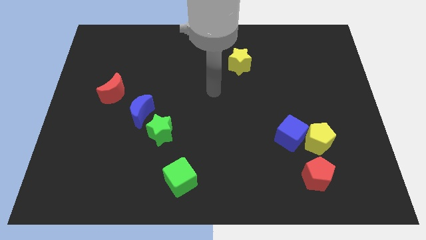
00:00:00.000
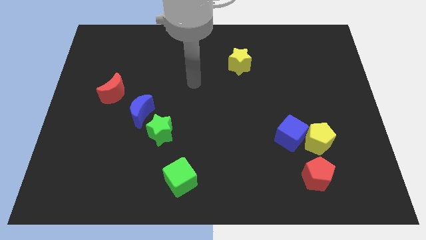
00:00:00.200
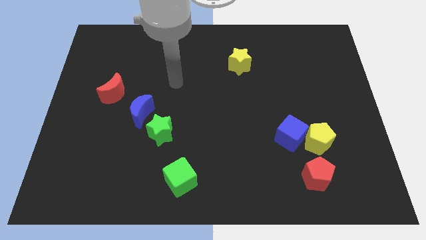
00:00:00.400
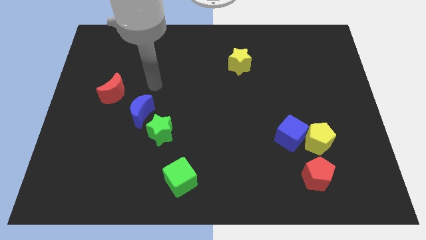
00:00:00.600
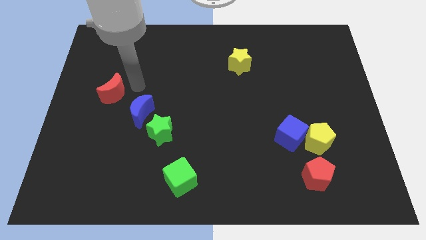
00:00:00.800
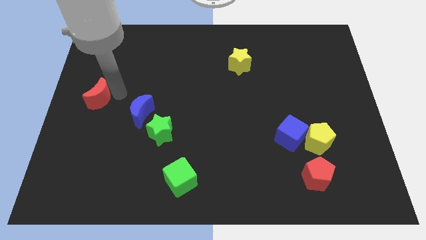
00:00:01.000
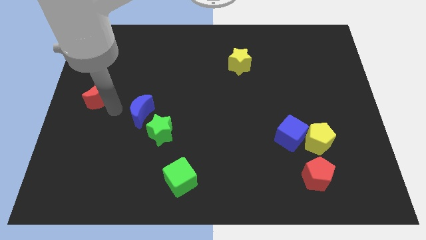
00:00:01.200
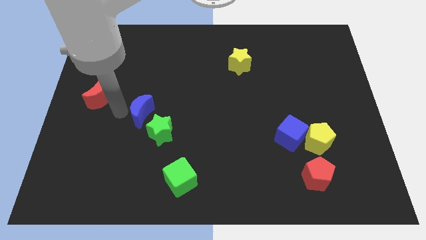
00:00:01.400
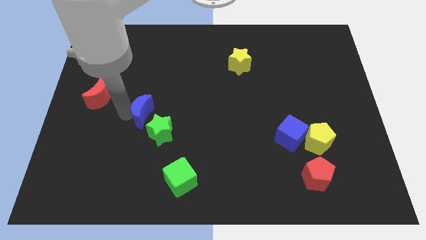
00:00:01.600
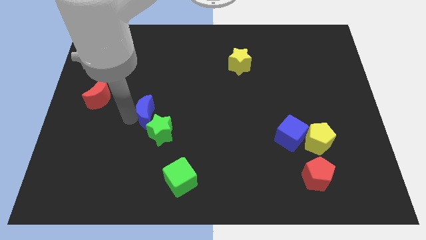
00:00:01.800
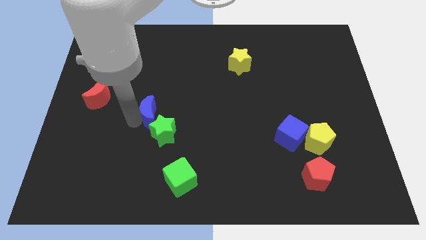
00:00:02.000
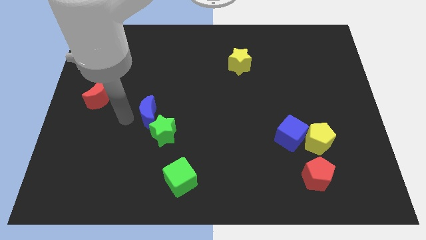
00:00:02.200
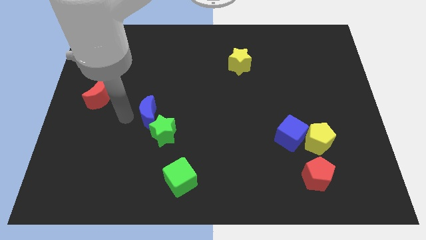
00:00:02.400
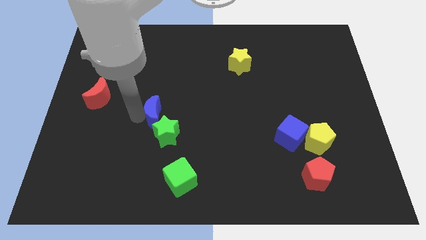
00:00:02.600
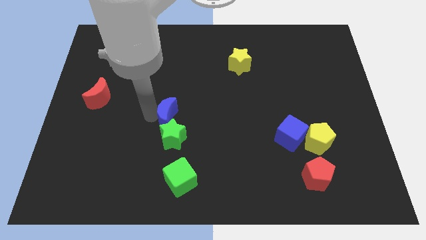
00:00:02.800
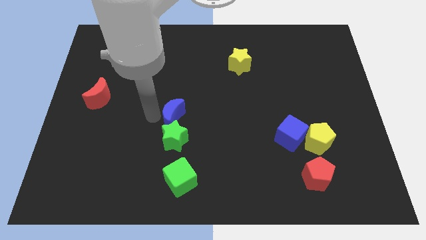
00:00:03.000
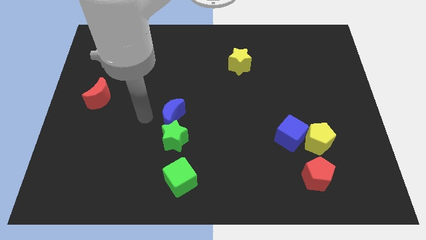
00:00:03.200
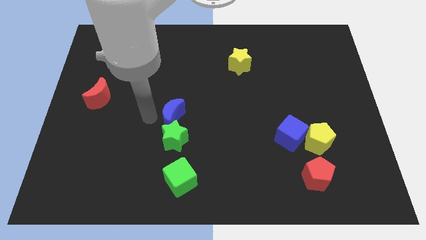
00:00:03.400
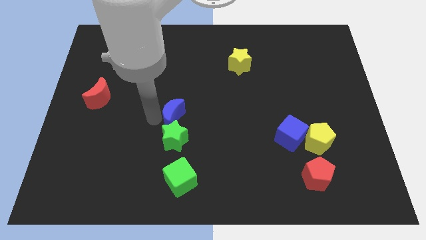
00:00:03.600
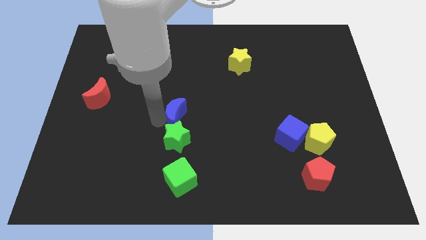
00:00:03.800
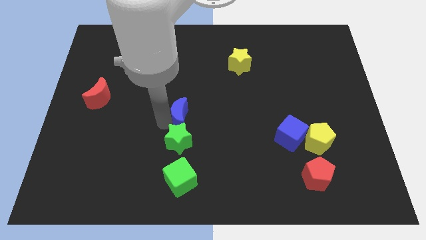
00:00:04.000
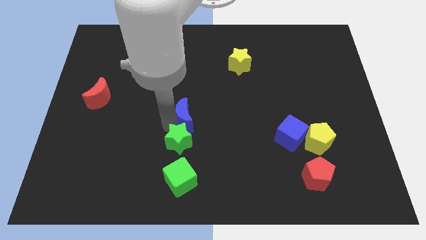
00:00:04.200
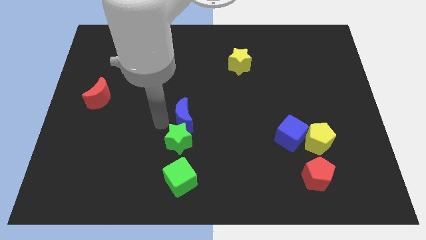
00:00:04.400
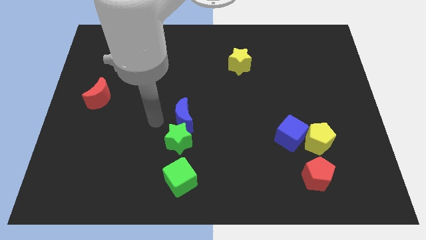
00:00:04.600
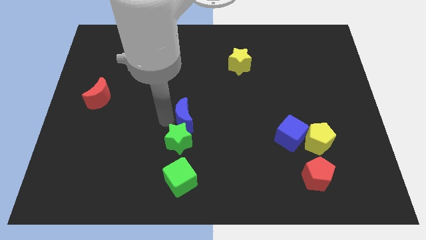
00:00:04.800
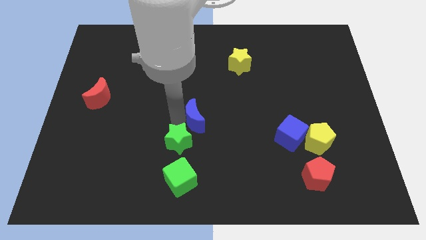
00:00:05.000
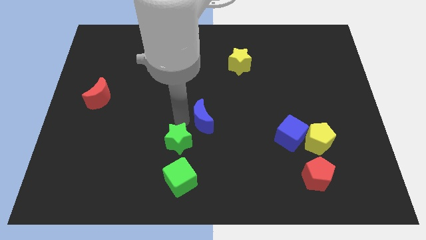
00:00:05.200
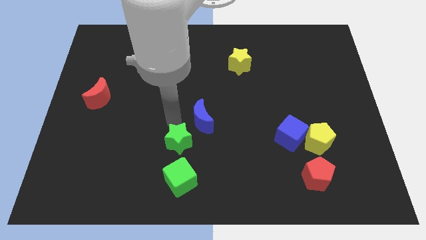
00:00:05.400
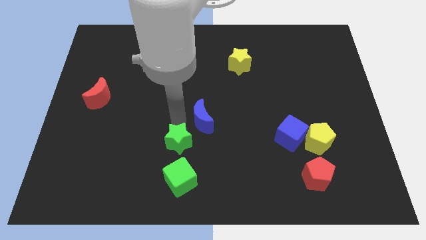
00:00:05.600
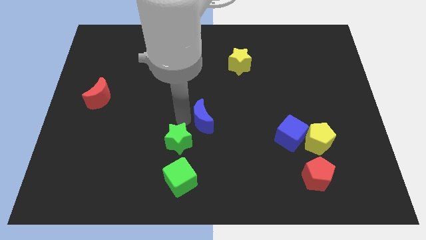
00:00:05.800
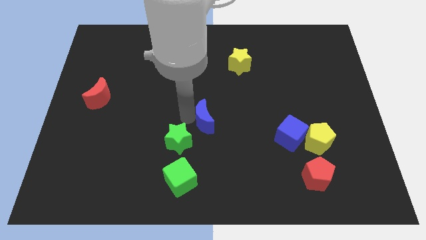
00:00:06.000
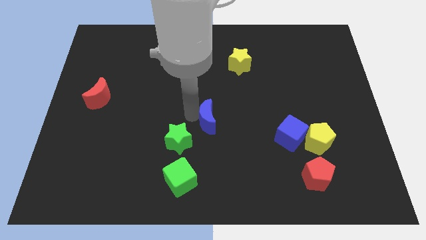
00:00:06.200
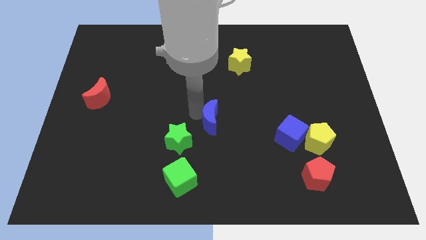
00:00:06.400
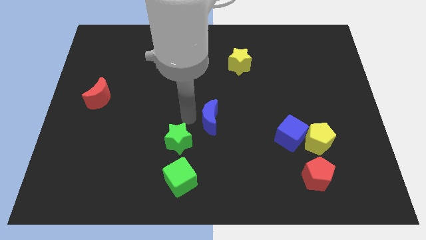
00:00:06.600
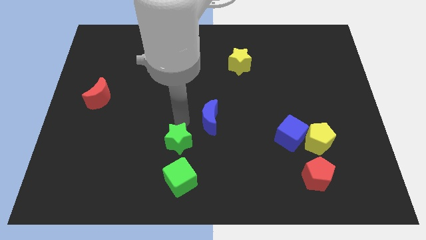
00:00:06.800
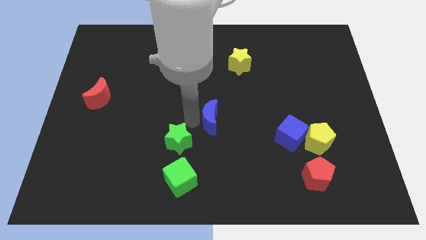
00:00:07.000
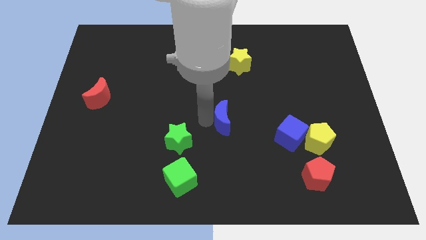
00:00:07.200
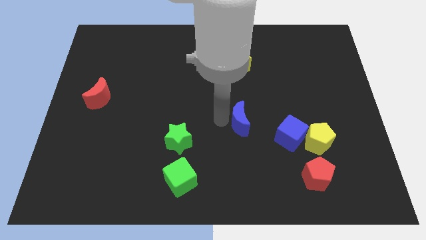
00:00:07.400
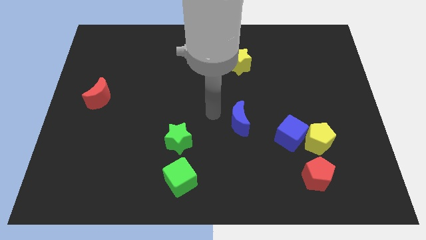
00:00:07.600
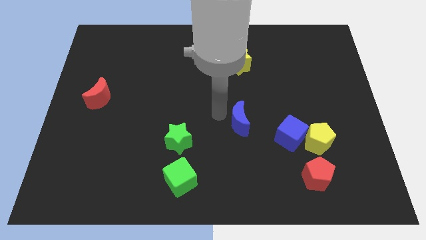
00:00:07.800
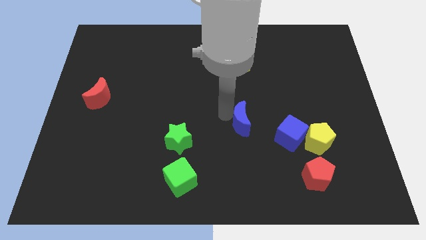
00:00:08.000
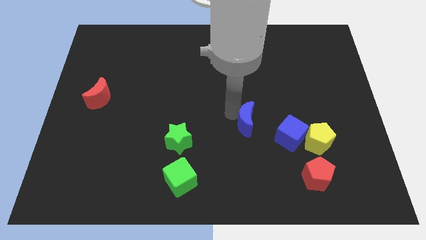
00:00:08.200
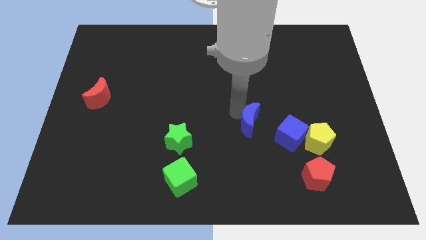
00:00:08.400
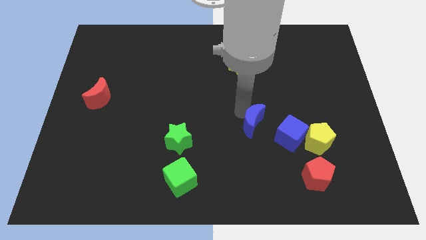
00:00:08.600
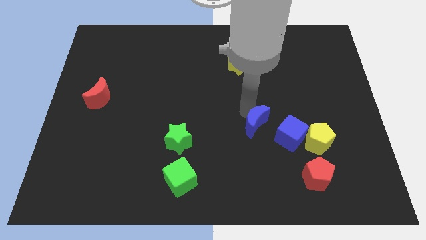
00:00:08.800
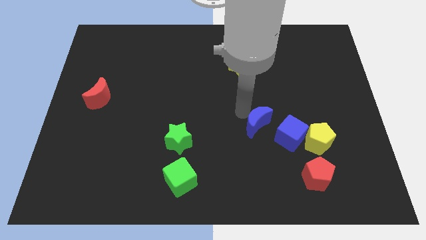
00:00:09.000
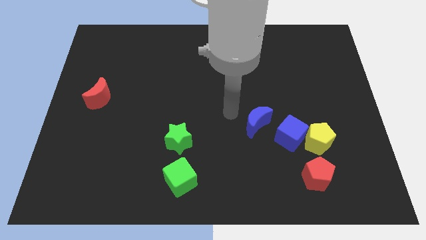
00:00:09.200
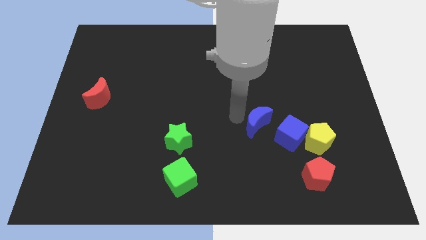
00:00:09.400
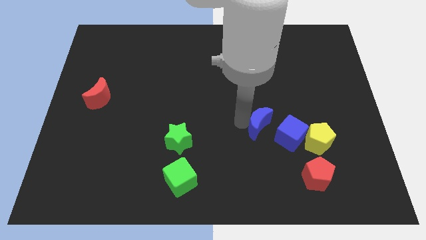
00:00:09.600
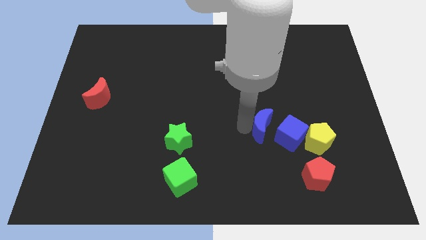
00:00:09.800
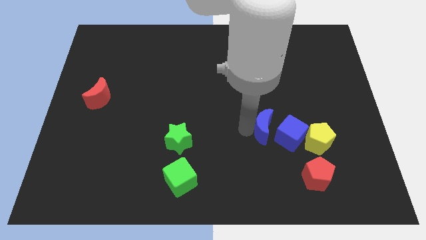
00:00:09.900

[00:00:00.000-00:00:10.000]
move the blue moon to the blue cube

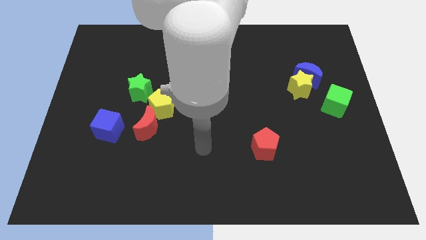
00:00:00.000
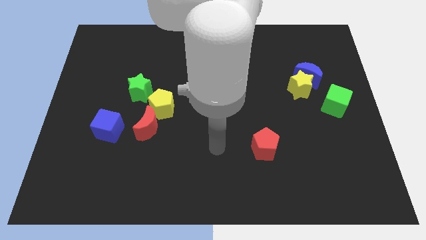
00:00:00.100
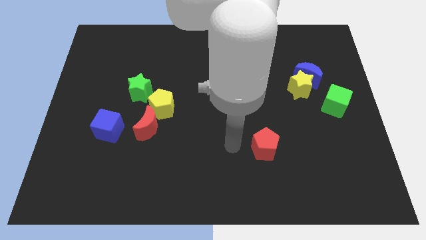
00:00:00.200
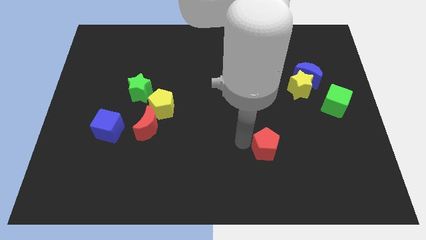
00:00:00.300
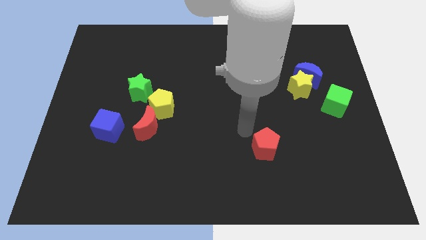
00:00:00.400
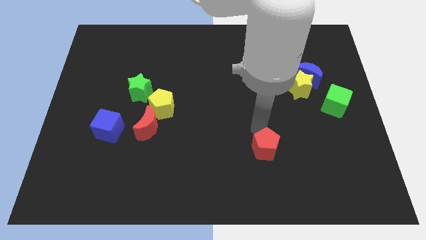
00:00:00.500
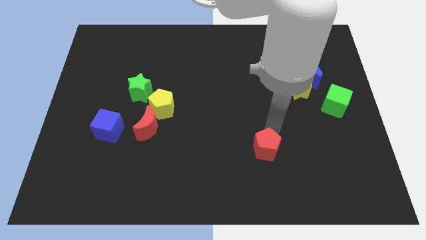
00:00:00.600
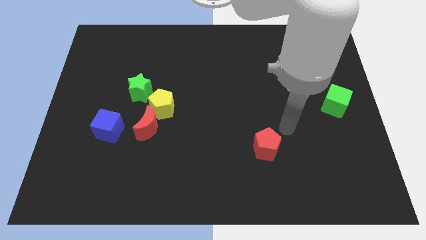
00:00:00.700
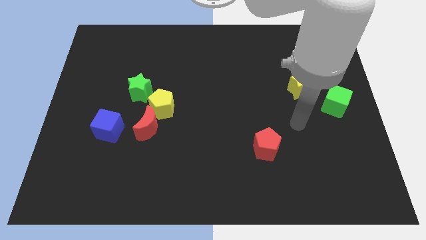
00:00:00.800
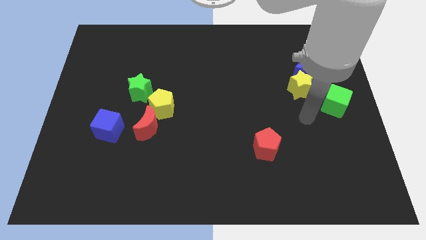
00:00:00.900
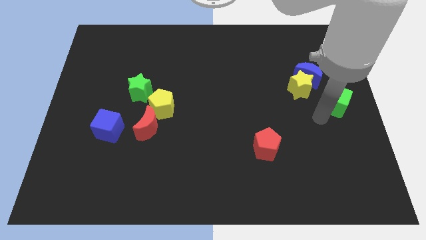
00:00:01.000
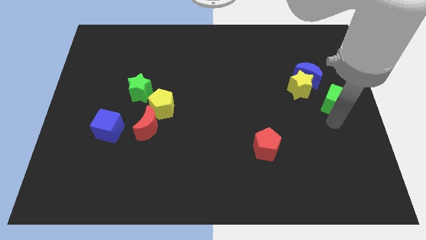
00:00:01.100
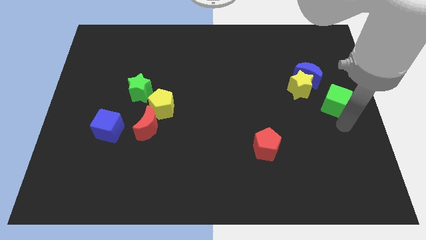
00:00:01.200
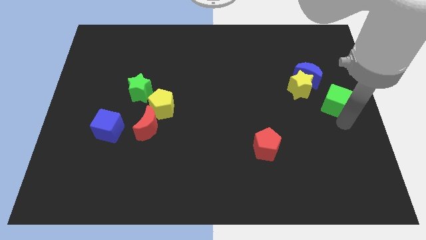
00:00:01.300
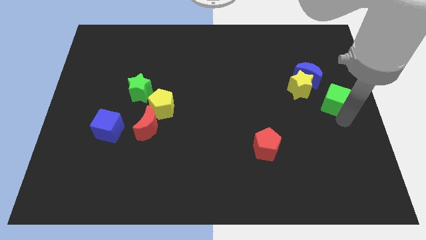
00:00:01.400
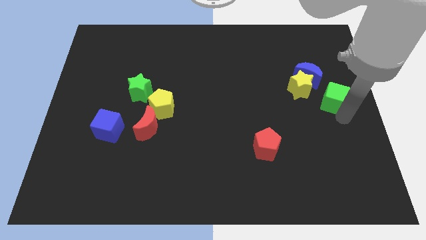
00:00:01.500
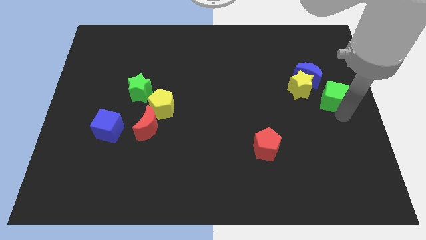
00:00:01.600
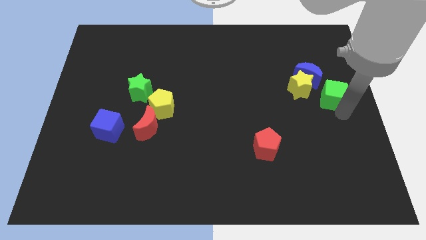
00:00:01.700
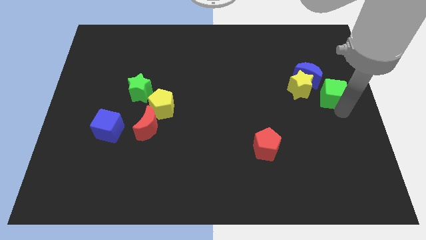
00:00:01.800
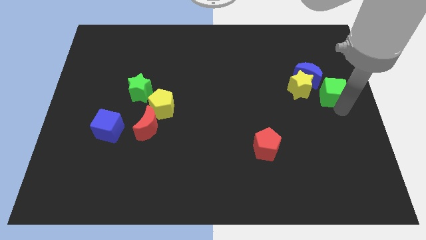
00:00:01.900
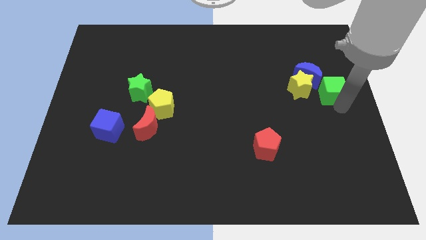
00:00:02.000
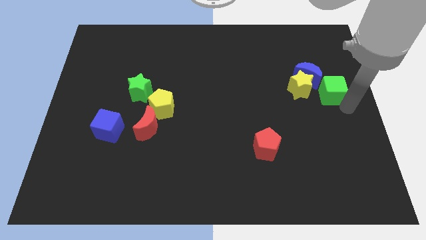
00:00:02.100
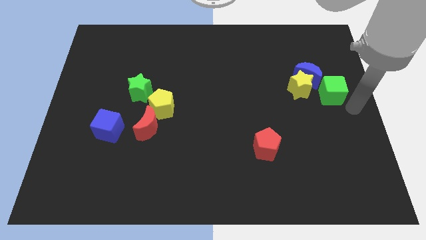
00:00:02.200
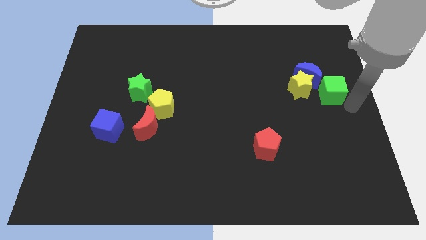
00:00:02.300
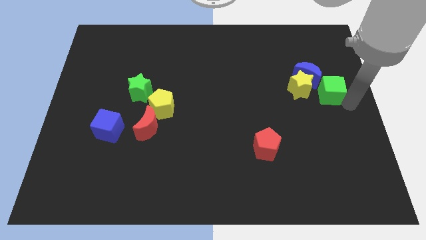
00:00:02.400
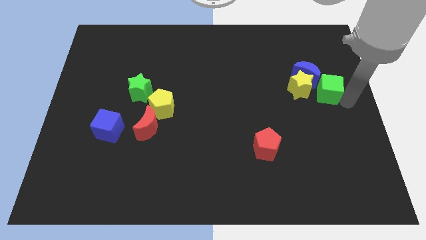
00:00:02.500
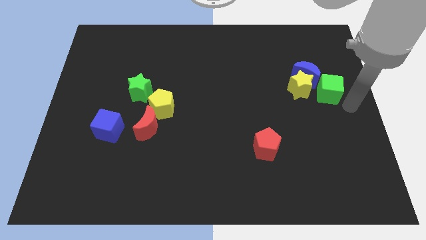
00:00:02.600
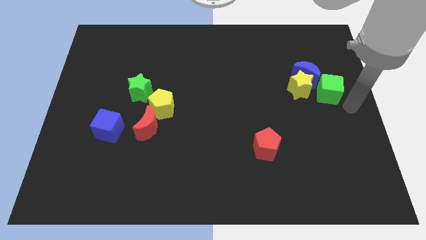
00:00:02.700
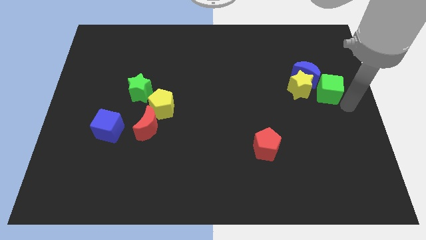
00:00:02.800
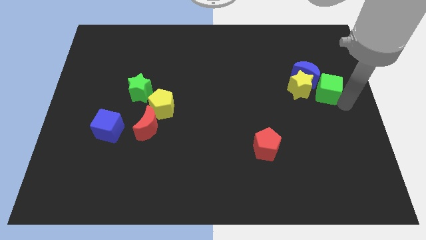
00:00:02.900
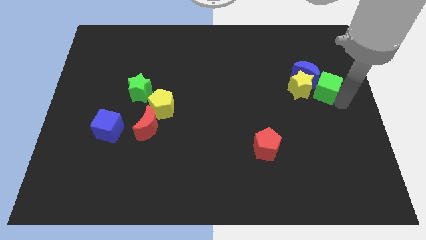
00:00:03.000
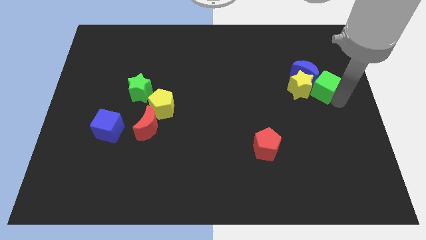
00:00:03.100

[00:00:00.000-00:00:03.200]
put the green cube towards the blue moon
